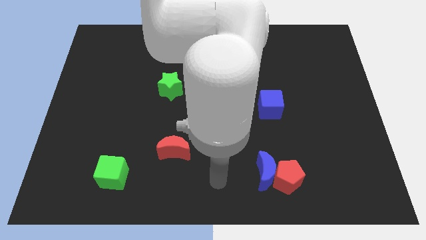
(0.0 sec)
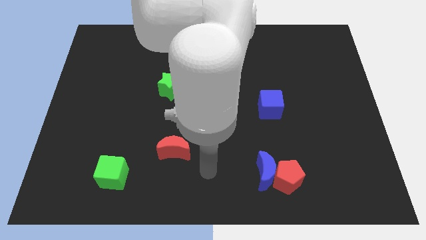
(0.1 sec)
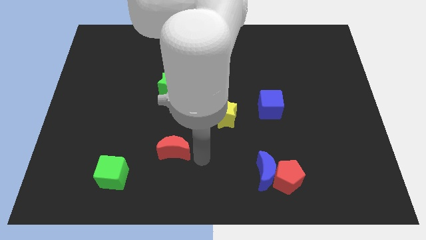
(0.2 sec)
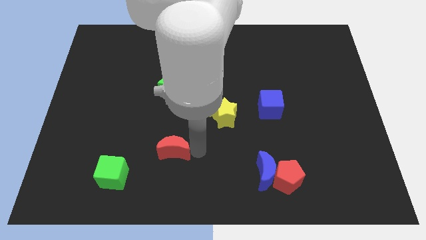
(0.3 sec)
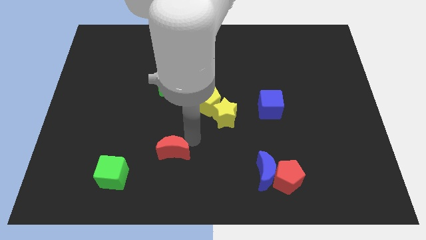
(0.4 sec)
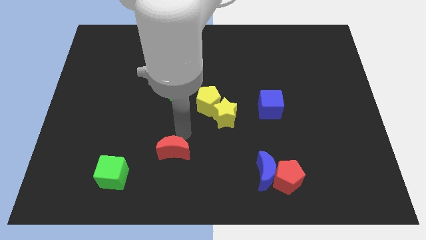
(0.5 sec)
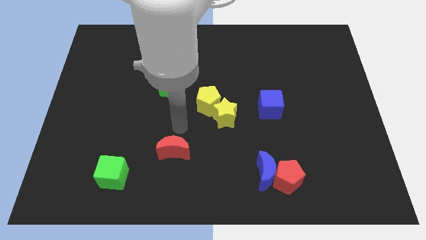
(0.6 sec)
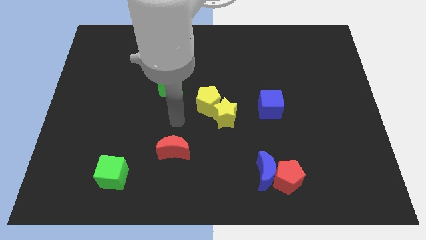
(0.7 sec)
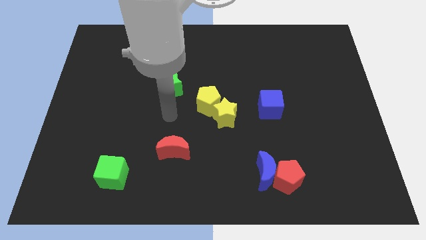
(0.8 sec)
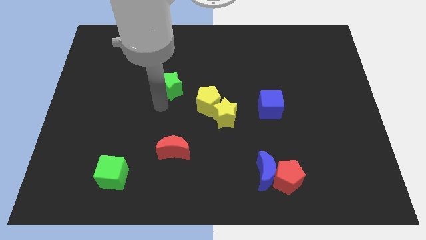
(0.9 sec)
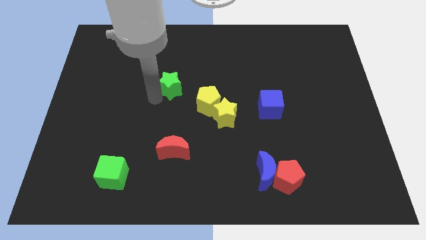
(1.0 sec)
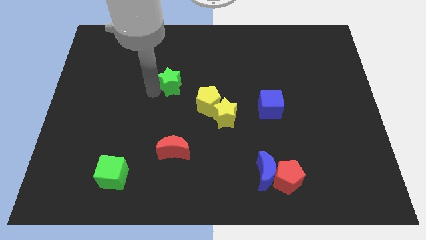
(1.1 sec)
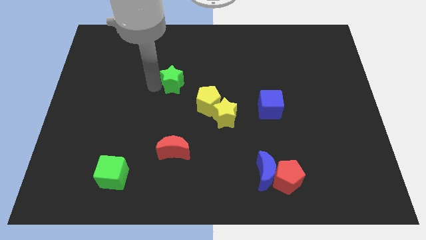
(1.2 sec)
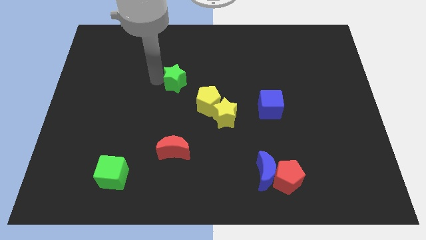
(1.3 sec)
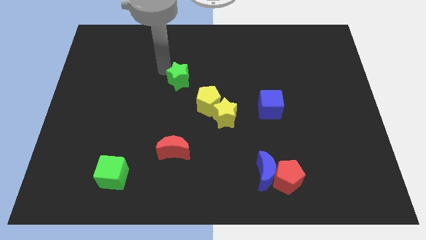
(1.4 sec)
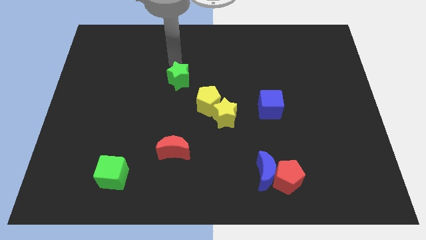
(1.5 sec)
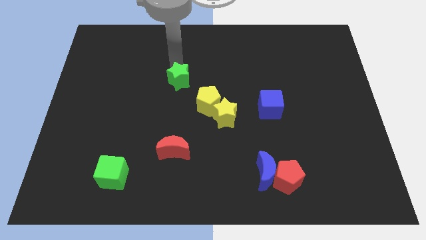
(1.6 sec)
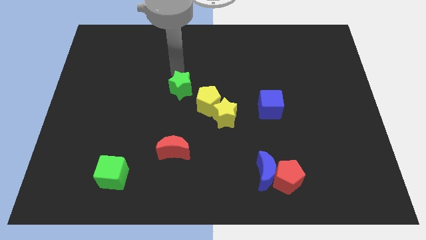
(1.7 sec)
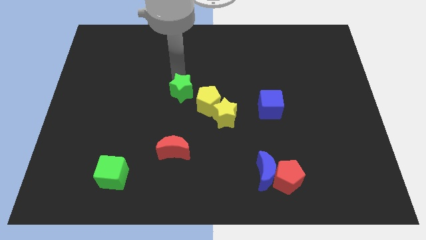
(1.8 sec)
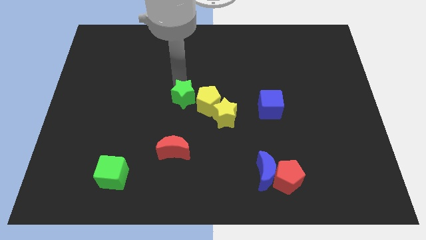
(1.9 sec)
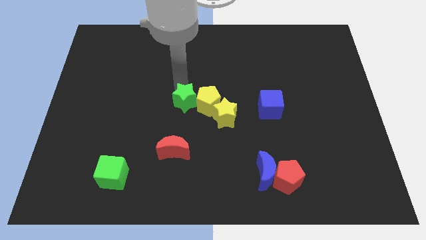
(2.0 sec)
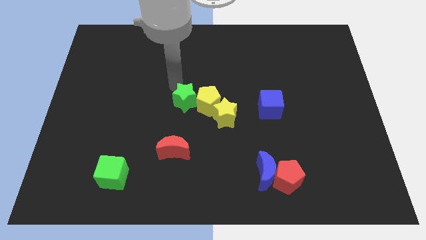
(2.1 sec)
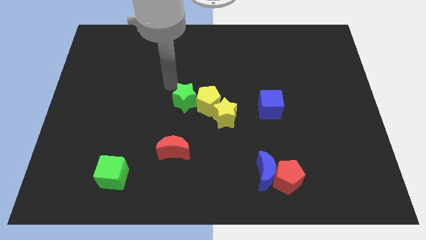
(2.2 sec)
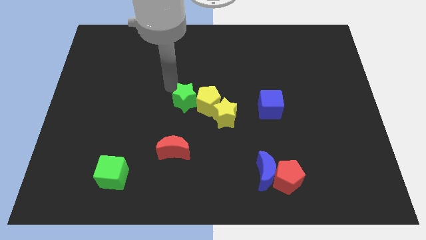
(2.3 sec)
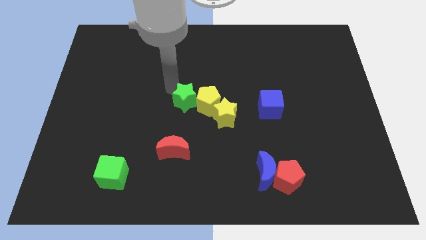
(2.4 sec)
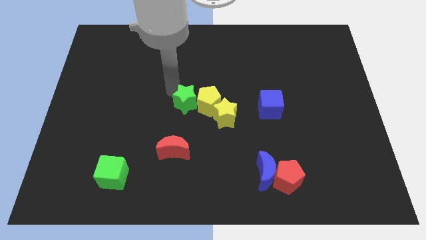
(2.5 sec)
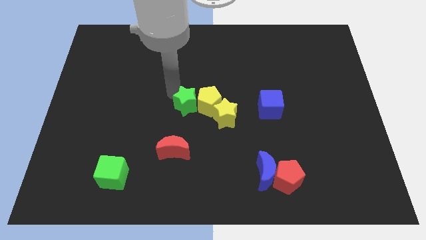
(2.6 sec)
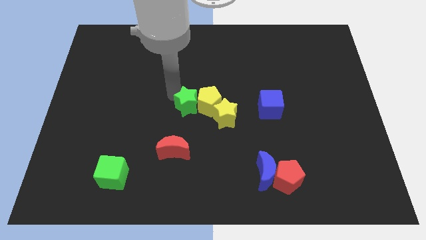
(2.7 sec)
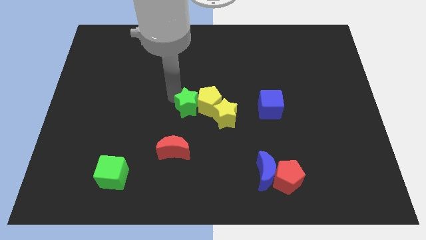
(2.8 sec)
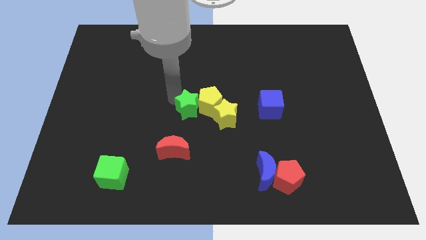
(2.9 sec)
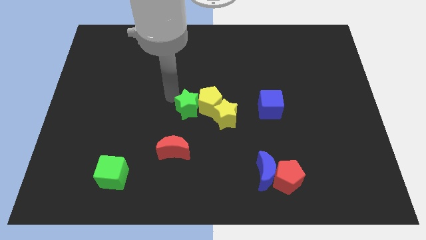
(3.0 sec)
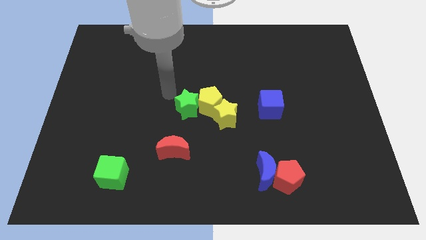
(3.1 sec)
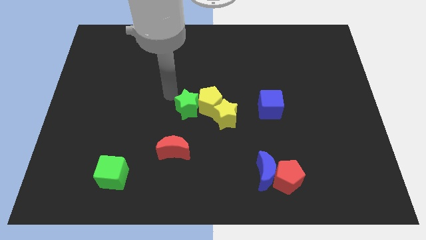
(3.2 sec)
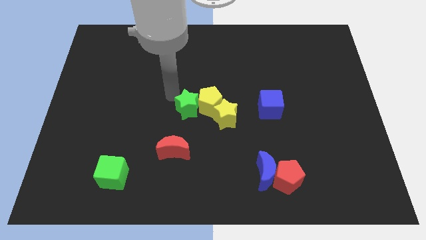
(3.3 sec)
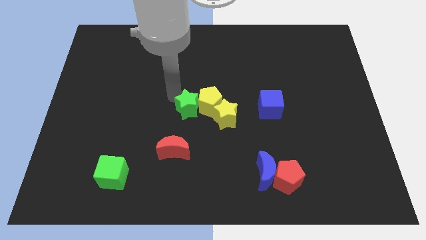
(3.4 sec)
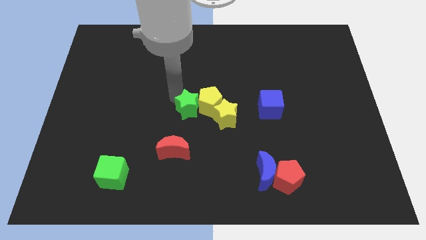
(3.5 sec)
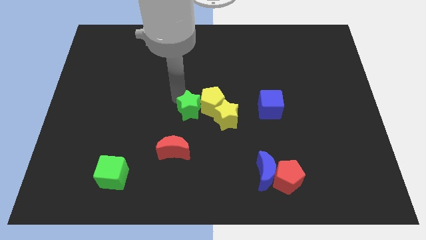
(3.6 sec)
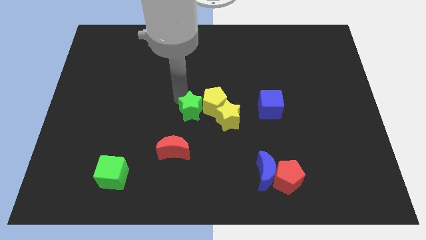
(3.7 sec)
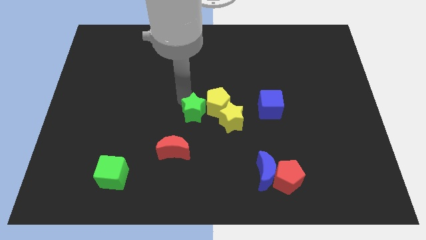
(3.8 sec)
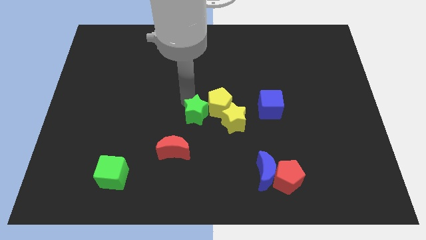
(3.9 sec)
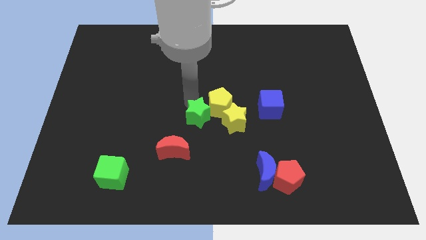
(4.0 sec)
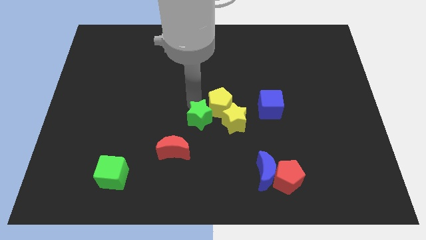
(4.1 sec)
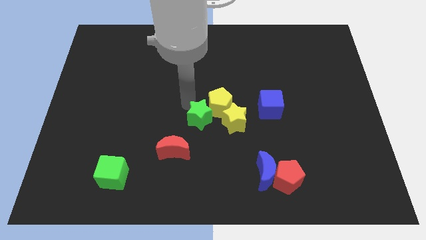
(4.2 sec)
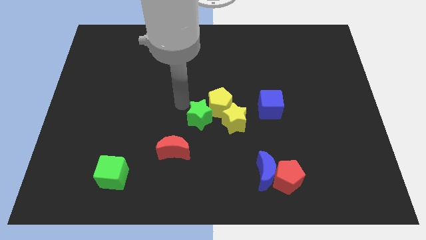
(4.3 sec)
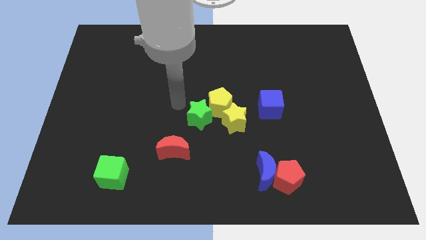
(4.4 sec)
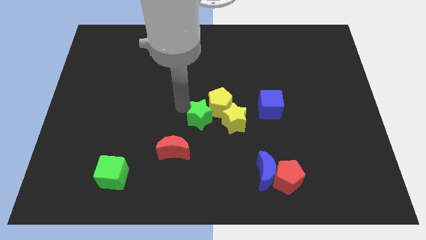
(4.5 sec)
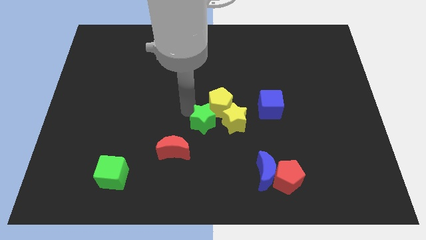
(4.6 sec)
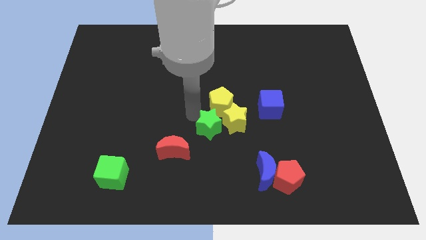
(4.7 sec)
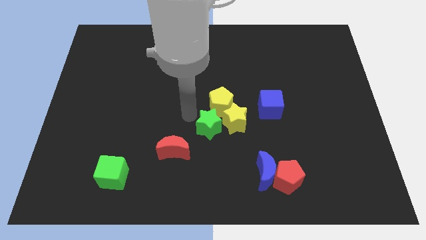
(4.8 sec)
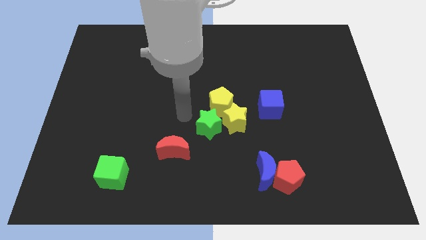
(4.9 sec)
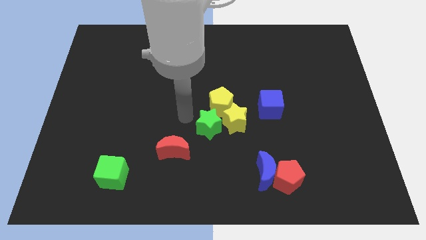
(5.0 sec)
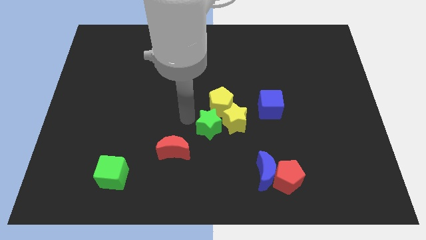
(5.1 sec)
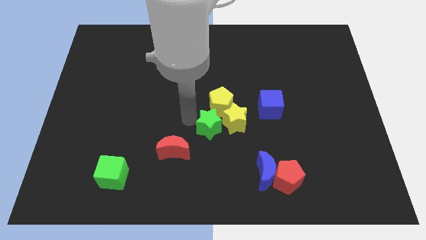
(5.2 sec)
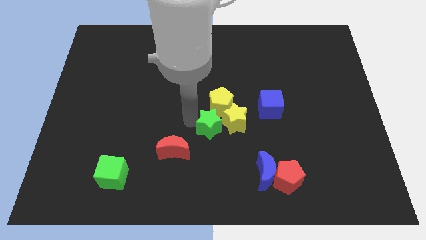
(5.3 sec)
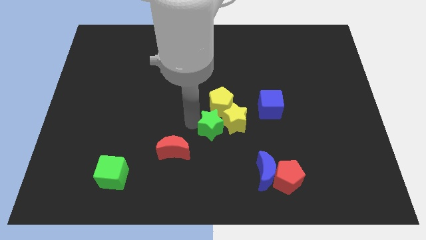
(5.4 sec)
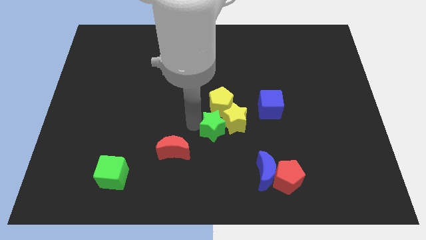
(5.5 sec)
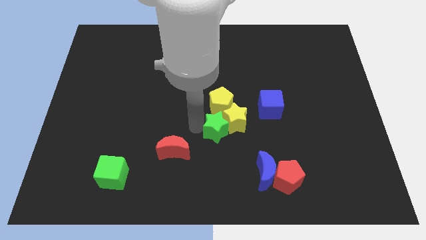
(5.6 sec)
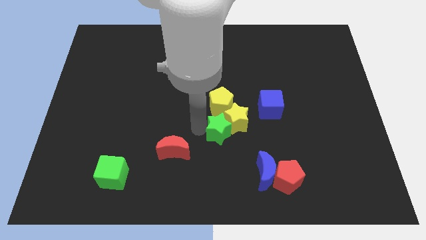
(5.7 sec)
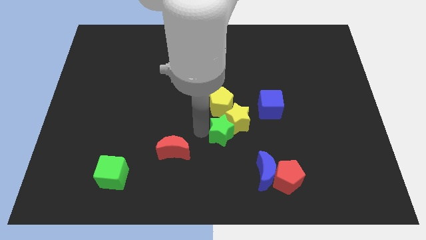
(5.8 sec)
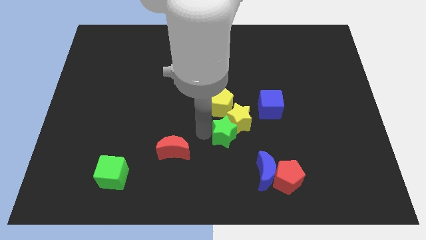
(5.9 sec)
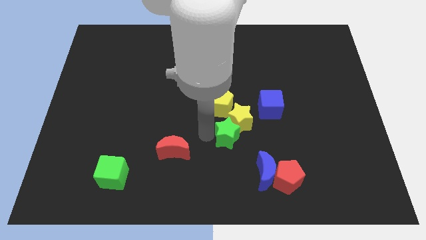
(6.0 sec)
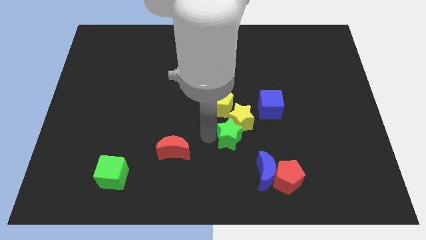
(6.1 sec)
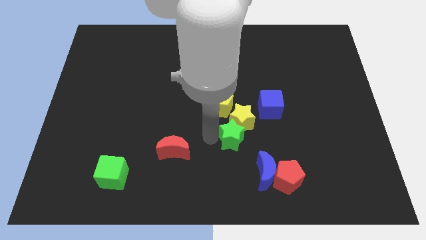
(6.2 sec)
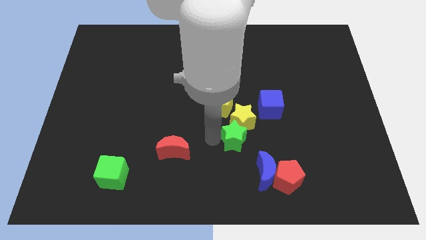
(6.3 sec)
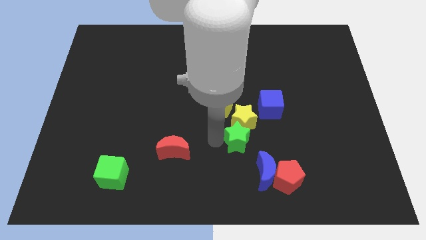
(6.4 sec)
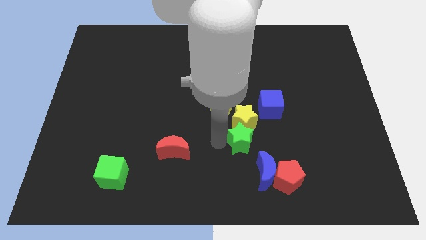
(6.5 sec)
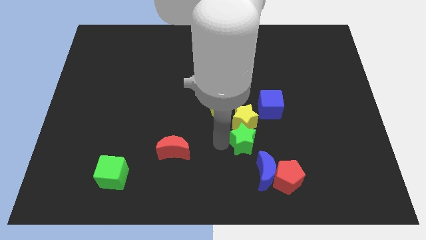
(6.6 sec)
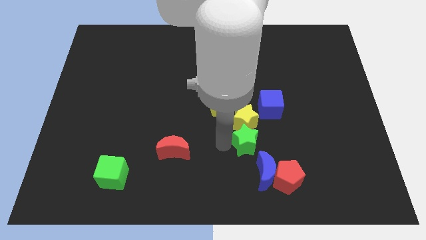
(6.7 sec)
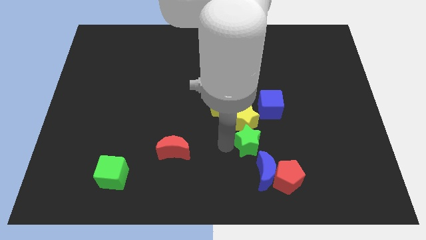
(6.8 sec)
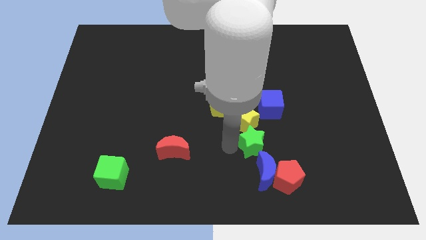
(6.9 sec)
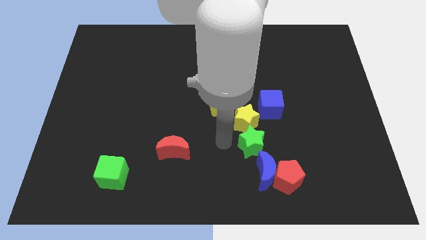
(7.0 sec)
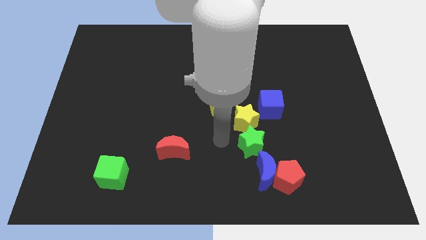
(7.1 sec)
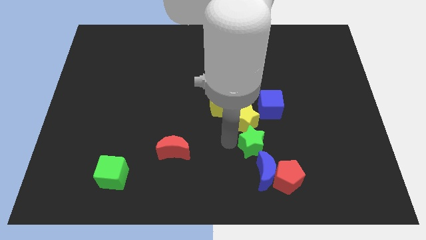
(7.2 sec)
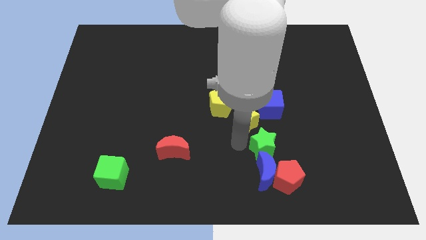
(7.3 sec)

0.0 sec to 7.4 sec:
move the green star to the top right side of the blue moon

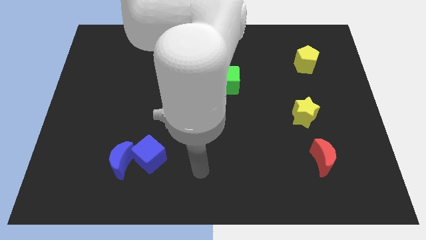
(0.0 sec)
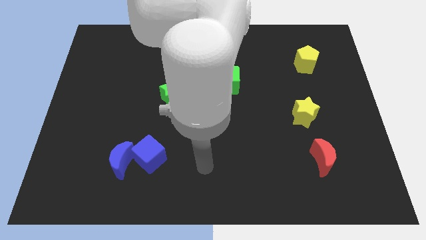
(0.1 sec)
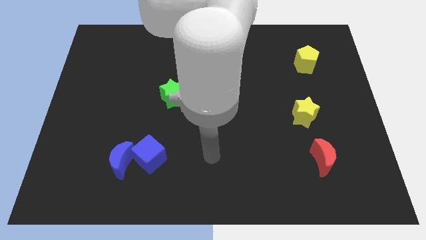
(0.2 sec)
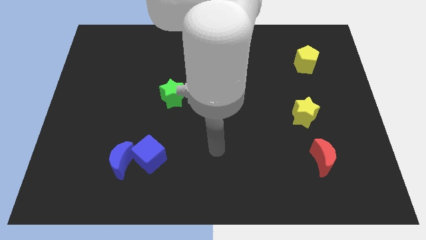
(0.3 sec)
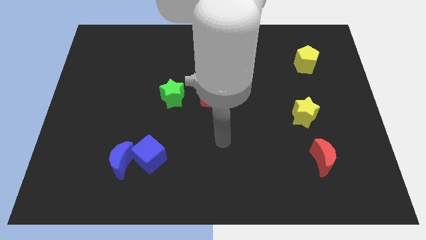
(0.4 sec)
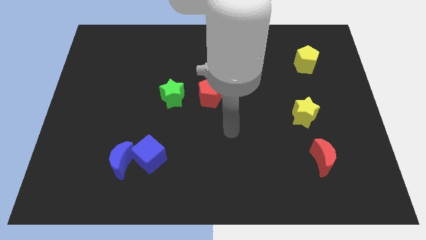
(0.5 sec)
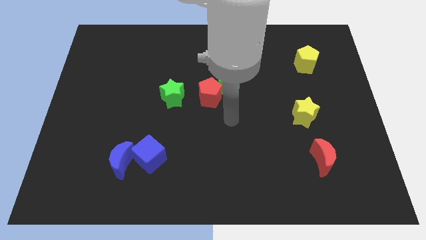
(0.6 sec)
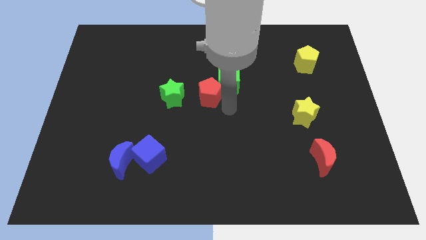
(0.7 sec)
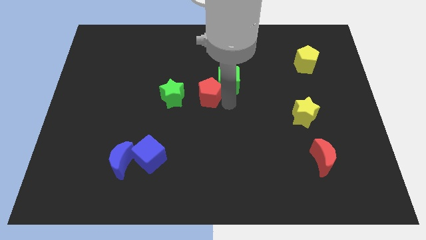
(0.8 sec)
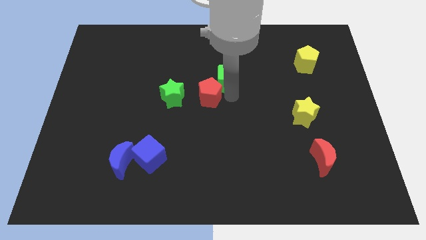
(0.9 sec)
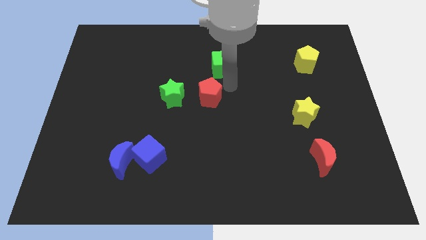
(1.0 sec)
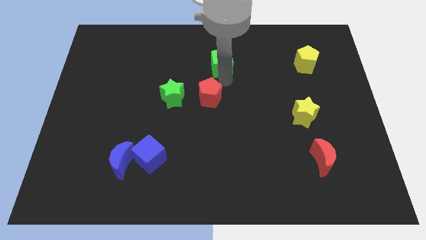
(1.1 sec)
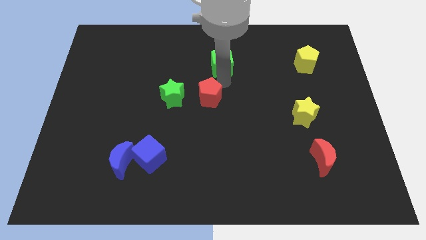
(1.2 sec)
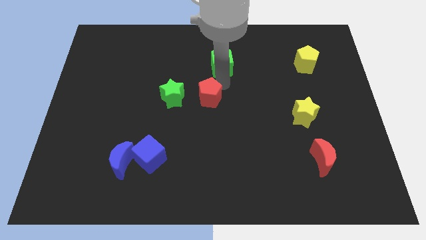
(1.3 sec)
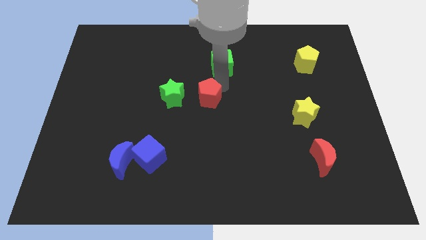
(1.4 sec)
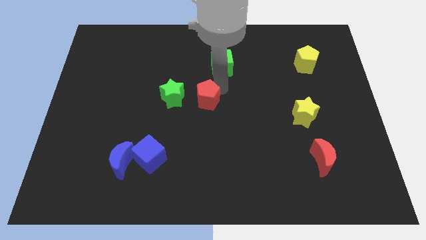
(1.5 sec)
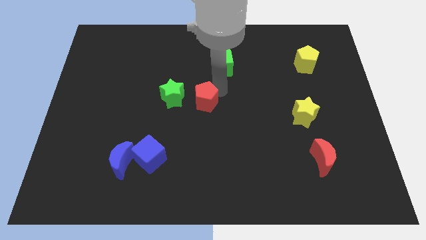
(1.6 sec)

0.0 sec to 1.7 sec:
slide the red pentagon diagonally down and to the right of the green star
